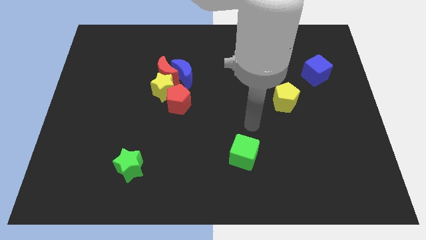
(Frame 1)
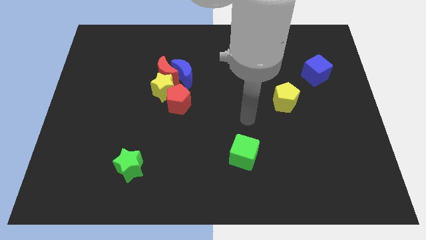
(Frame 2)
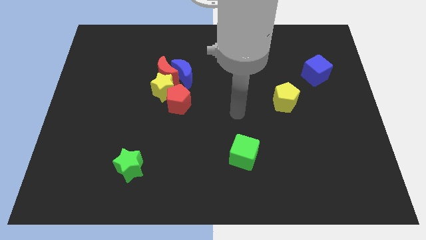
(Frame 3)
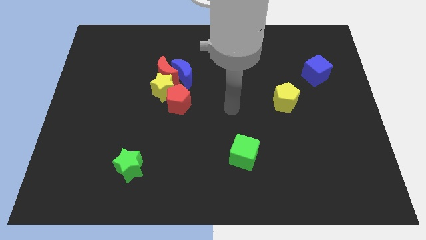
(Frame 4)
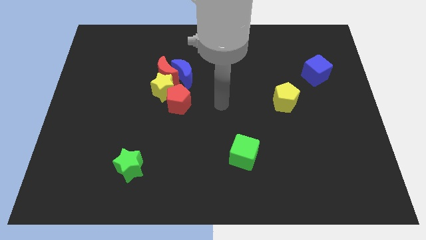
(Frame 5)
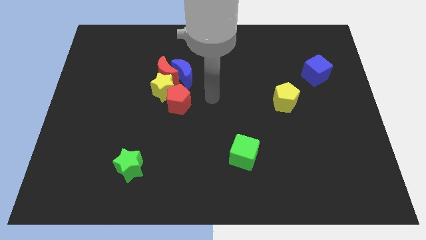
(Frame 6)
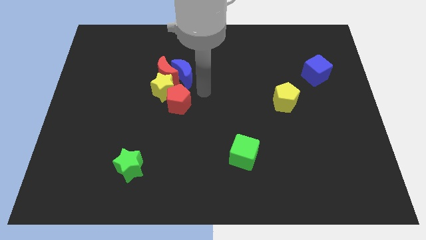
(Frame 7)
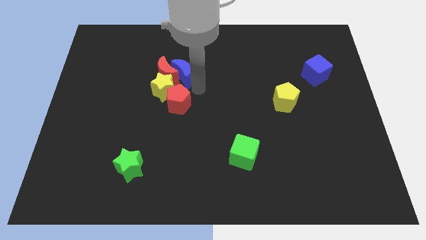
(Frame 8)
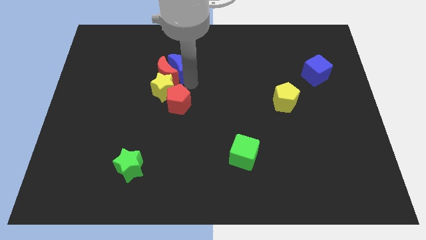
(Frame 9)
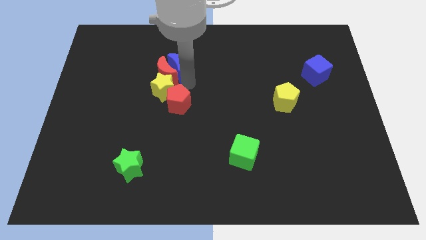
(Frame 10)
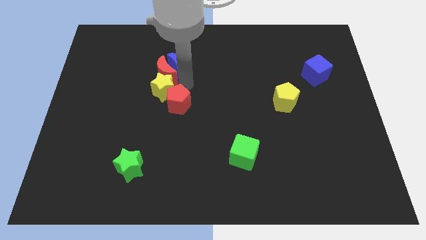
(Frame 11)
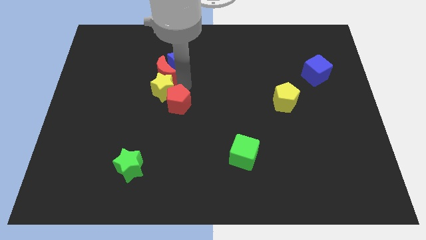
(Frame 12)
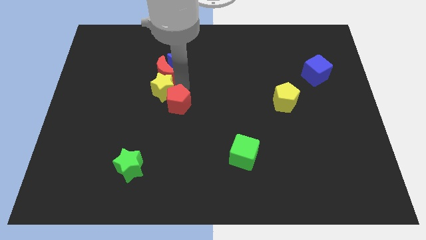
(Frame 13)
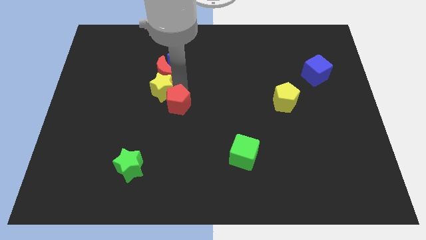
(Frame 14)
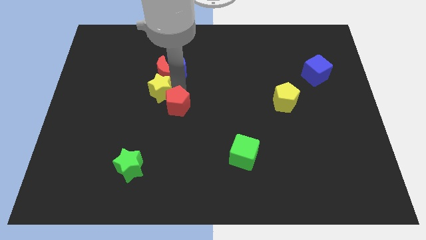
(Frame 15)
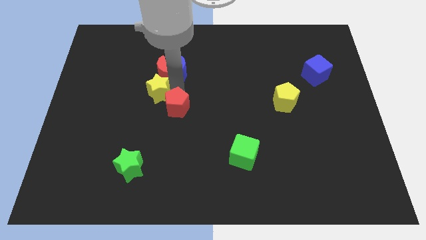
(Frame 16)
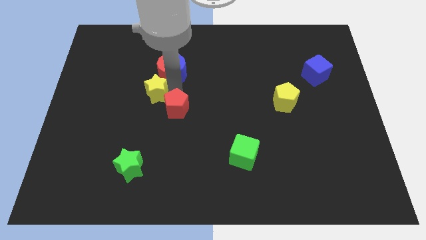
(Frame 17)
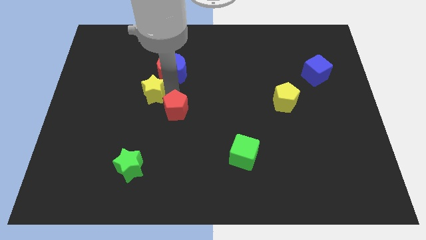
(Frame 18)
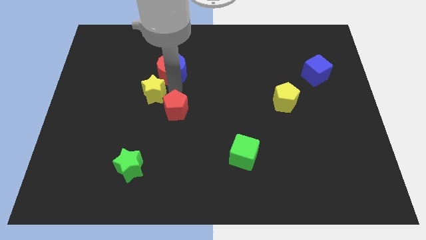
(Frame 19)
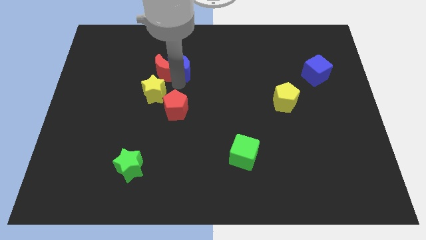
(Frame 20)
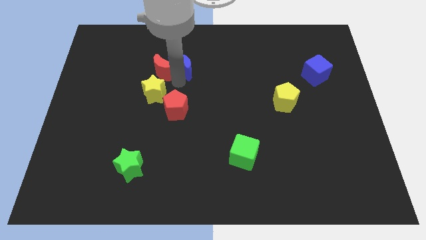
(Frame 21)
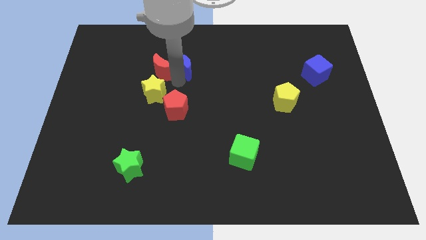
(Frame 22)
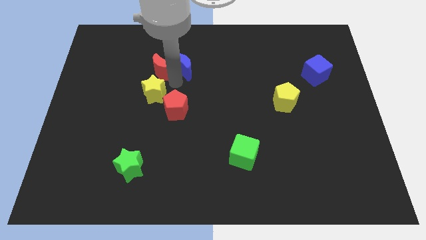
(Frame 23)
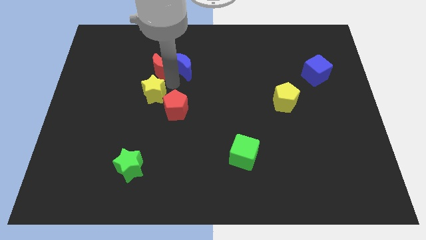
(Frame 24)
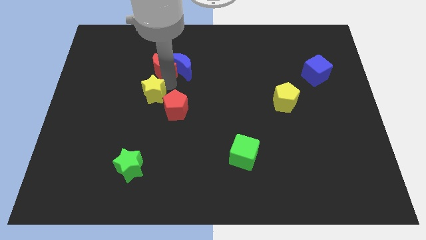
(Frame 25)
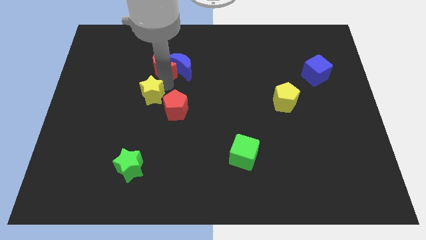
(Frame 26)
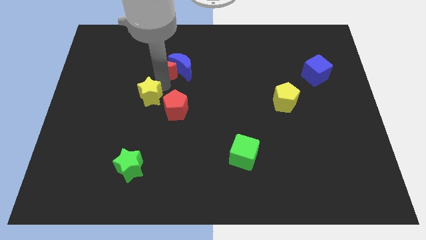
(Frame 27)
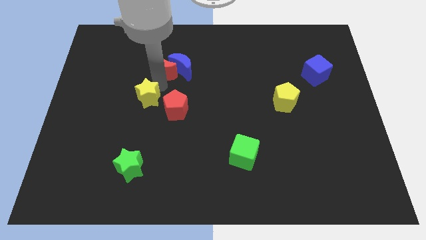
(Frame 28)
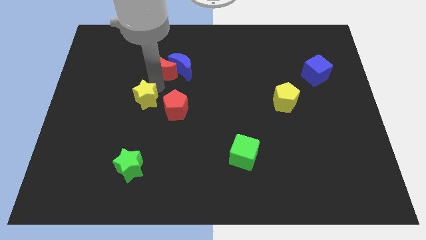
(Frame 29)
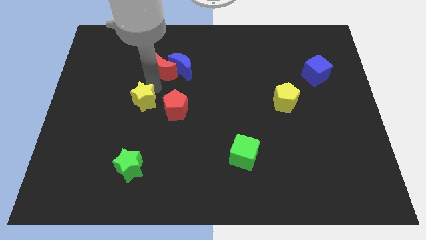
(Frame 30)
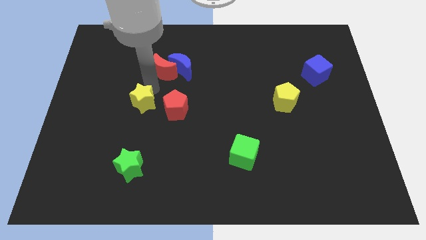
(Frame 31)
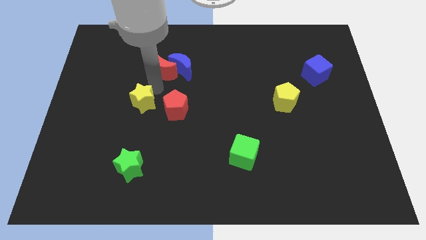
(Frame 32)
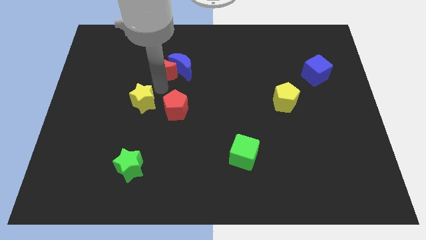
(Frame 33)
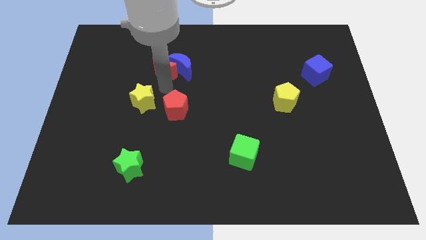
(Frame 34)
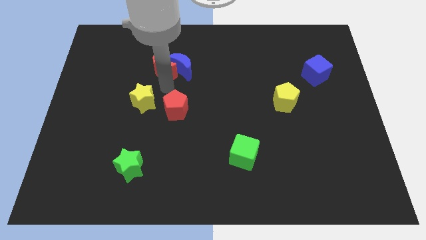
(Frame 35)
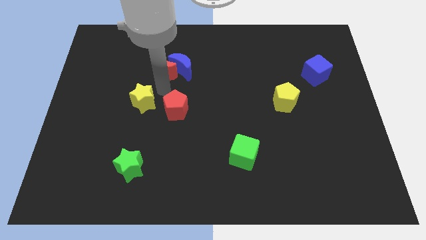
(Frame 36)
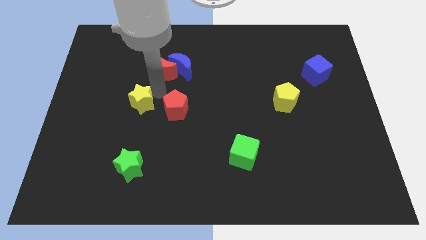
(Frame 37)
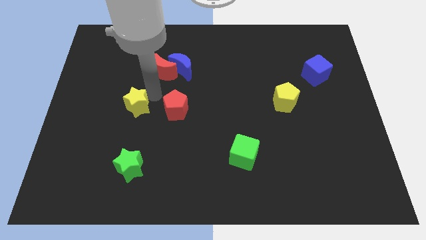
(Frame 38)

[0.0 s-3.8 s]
pull the yellow star apart from the red moon, red pentagon, and blue moon

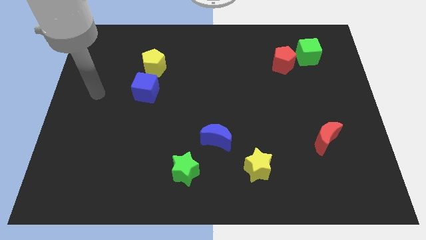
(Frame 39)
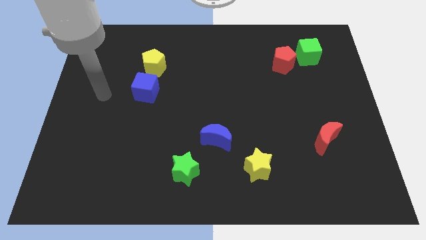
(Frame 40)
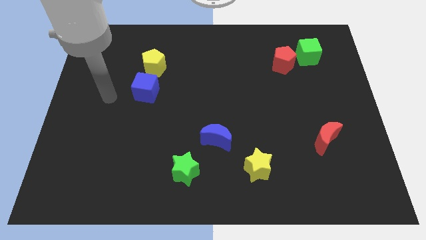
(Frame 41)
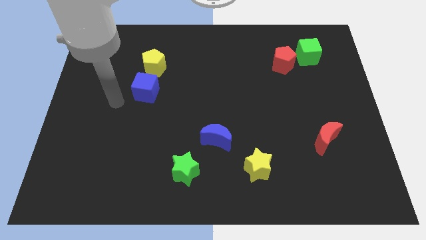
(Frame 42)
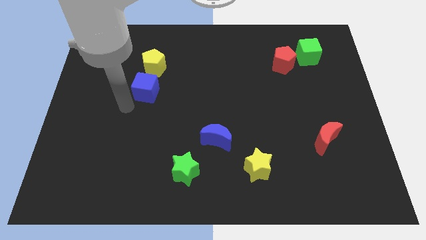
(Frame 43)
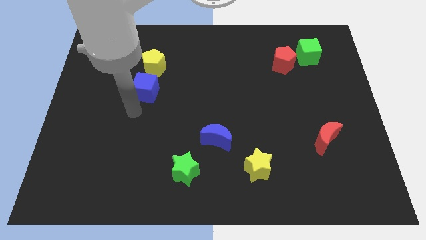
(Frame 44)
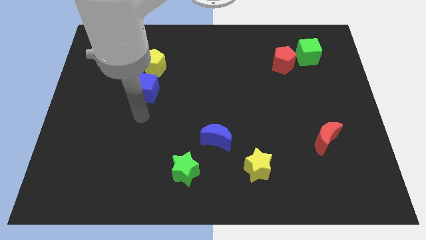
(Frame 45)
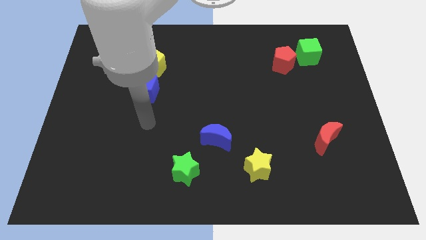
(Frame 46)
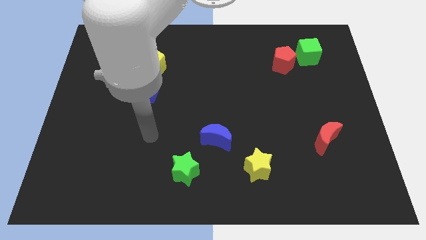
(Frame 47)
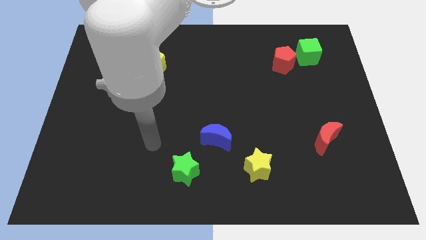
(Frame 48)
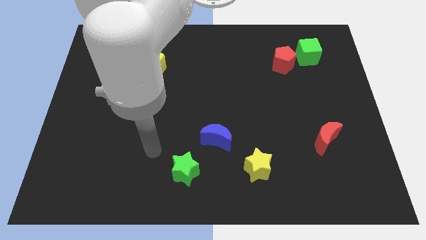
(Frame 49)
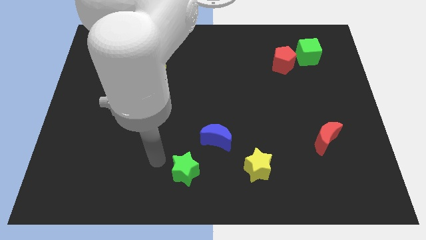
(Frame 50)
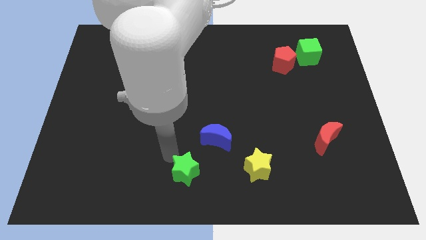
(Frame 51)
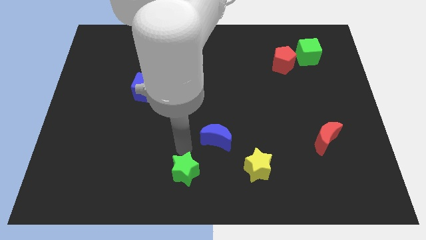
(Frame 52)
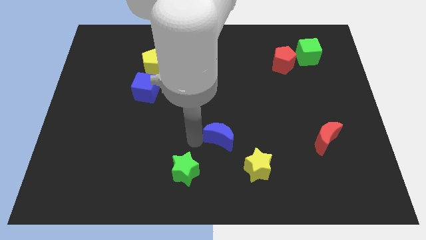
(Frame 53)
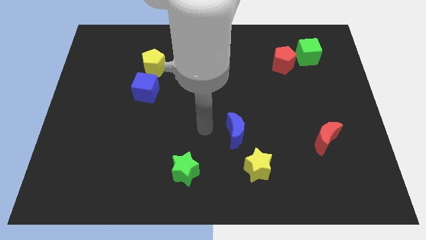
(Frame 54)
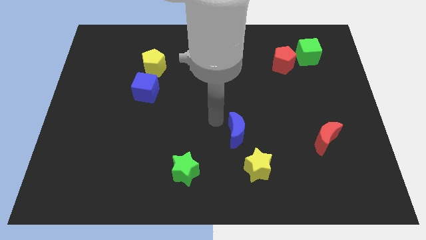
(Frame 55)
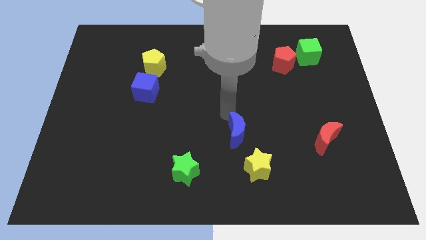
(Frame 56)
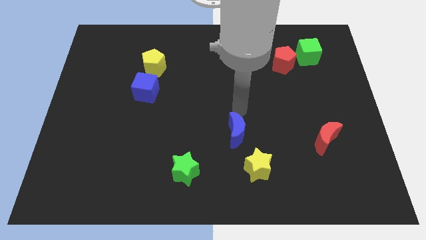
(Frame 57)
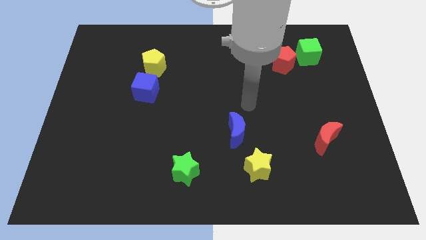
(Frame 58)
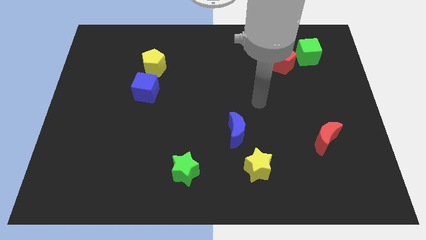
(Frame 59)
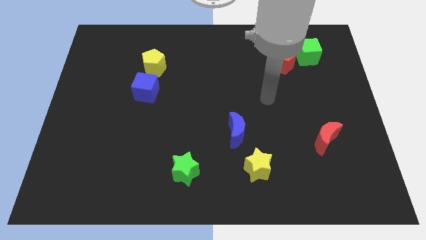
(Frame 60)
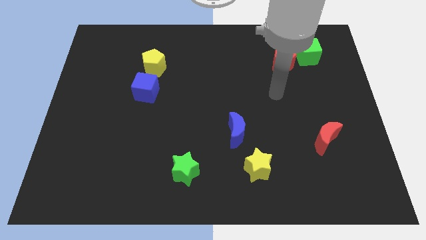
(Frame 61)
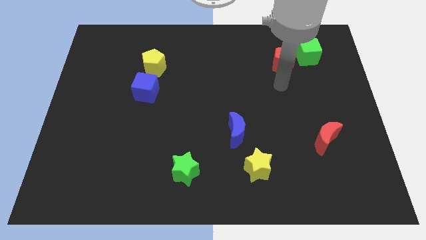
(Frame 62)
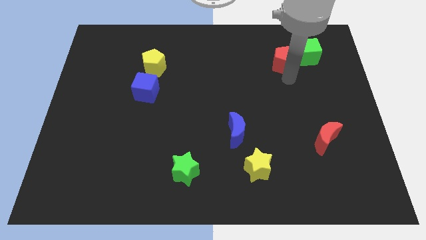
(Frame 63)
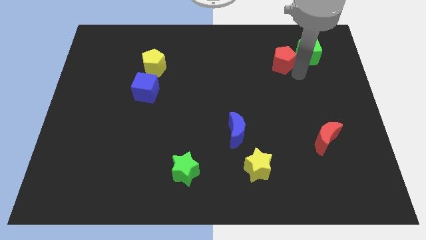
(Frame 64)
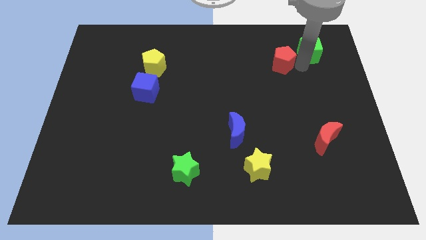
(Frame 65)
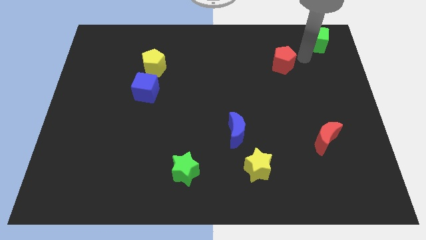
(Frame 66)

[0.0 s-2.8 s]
separate the red pentagon from the green cube

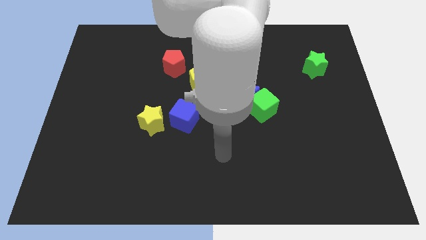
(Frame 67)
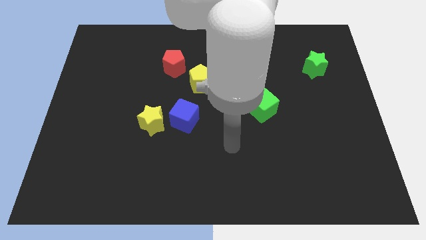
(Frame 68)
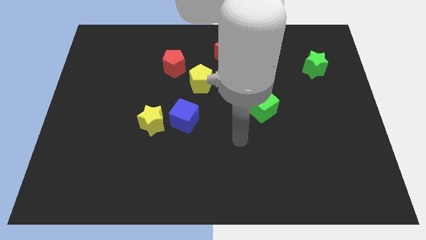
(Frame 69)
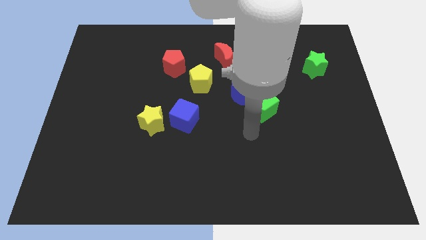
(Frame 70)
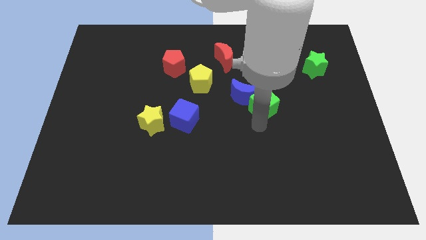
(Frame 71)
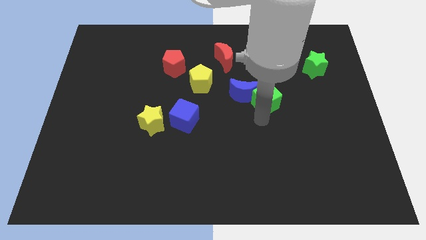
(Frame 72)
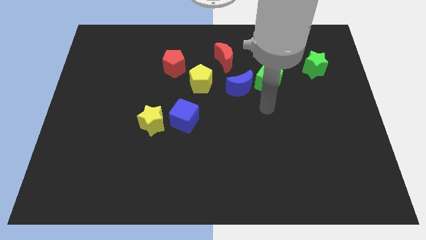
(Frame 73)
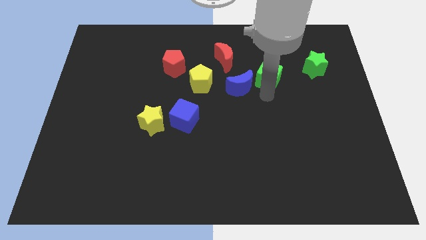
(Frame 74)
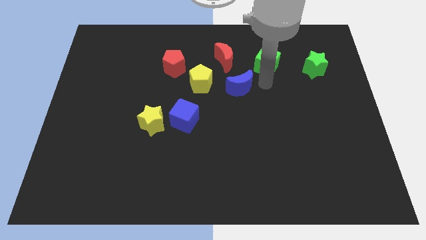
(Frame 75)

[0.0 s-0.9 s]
pull the blue moon apart from the green cube

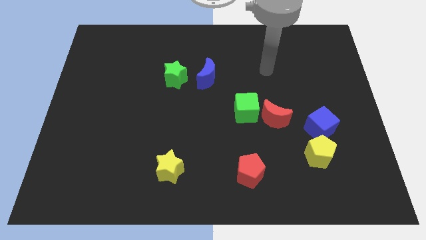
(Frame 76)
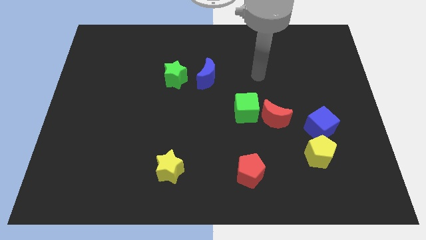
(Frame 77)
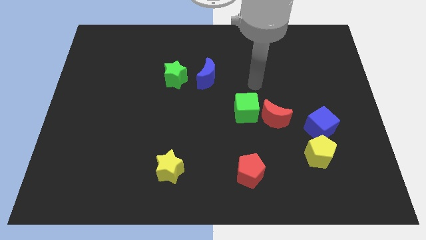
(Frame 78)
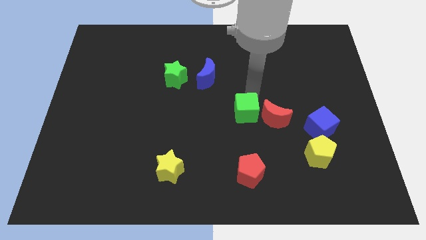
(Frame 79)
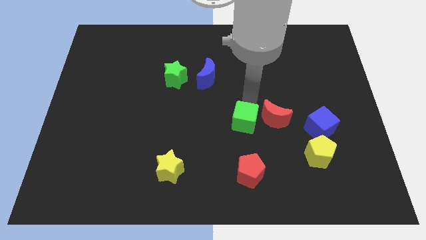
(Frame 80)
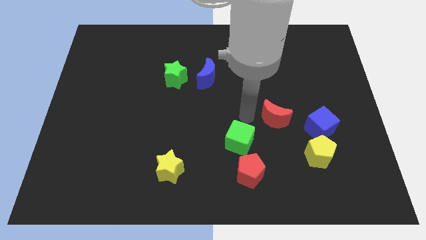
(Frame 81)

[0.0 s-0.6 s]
separate the red moon from the green cube

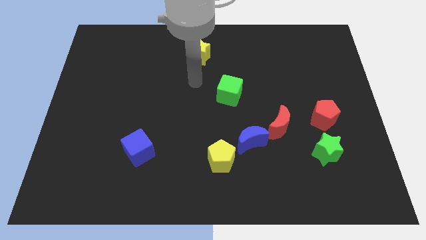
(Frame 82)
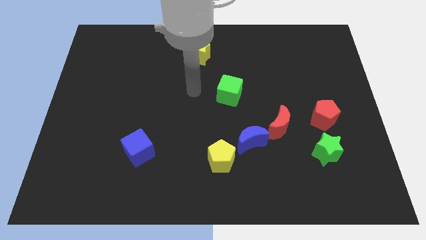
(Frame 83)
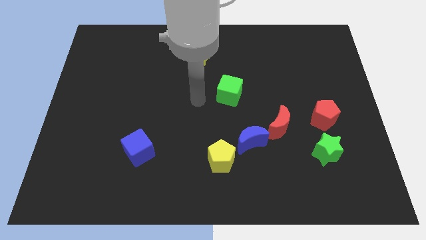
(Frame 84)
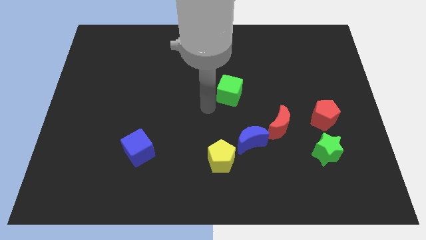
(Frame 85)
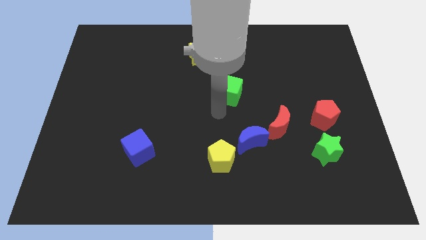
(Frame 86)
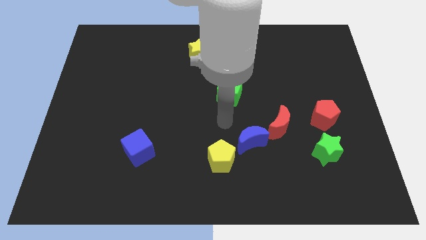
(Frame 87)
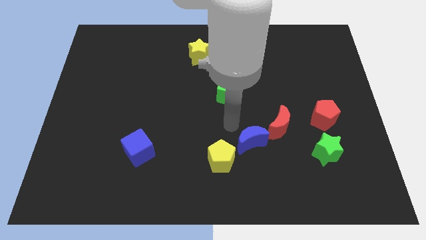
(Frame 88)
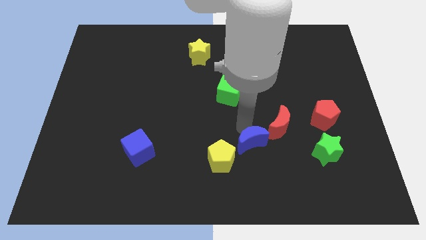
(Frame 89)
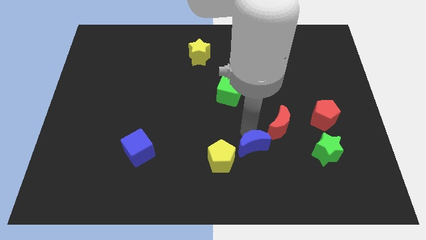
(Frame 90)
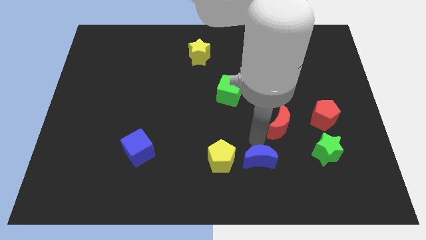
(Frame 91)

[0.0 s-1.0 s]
separate the red moon from the blue moon

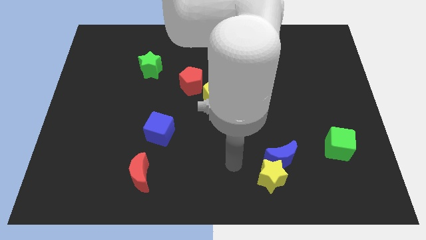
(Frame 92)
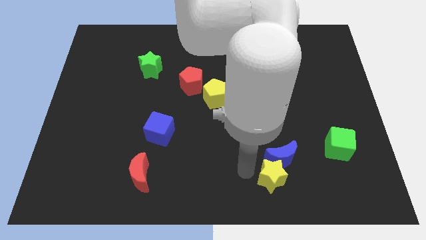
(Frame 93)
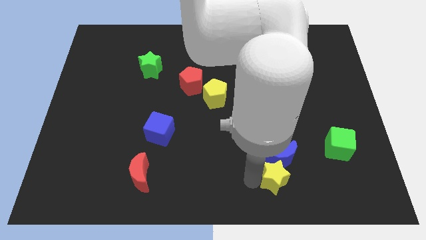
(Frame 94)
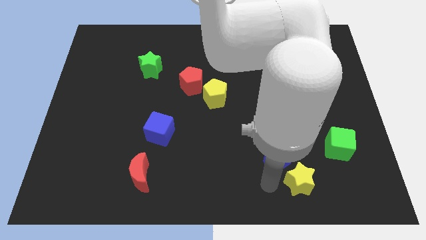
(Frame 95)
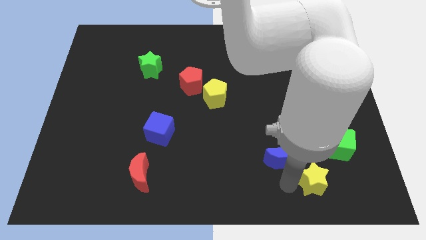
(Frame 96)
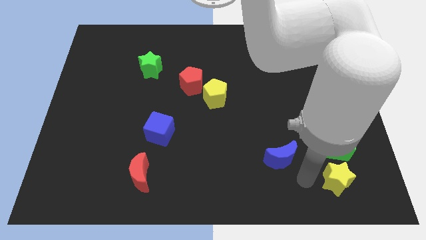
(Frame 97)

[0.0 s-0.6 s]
move the blue moon away from the yellow star
